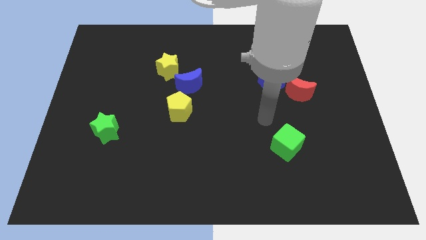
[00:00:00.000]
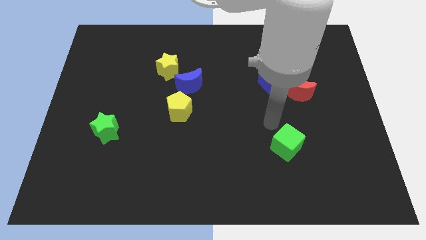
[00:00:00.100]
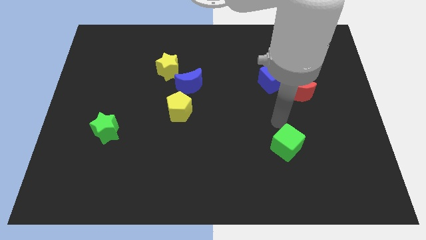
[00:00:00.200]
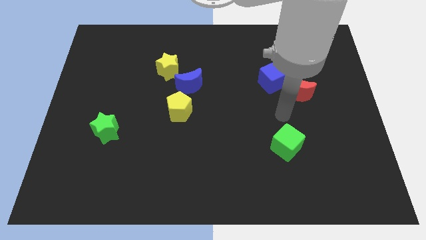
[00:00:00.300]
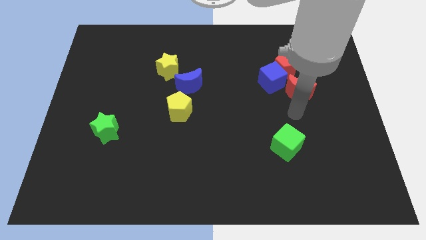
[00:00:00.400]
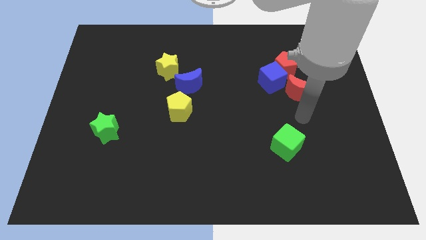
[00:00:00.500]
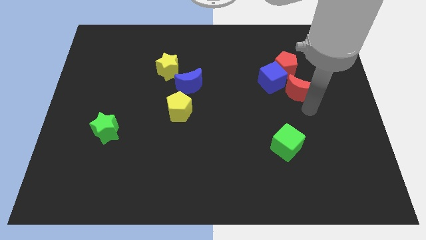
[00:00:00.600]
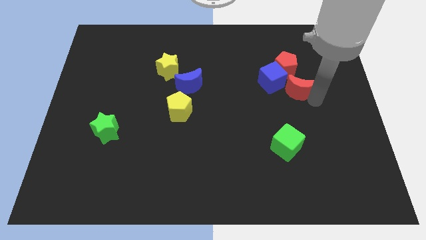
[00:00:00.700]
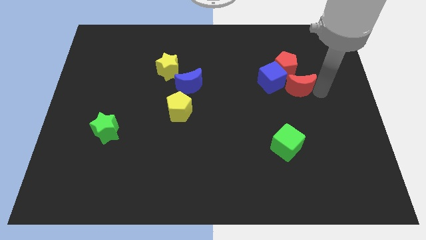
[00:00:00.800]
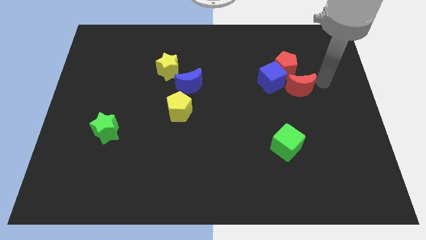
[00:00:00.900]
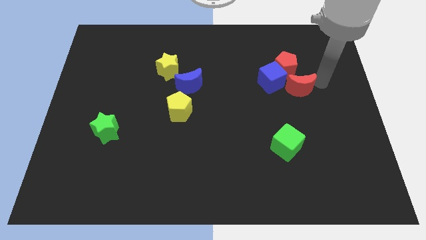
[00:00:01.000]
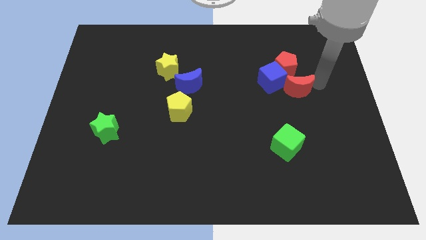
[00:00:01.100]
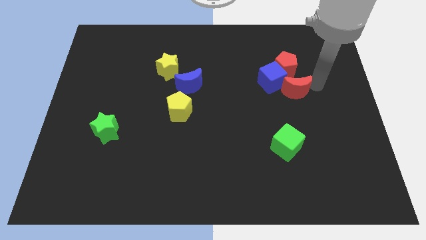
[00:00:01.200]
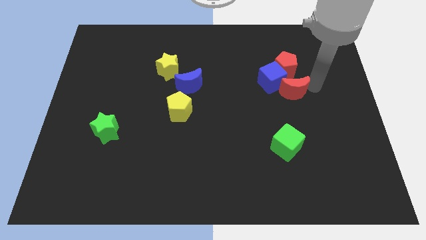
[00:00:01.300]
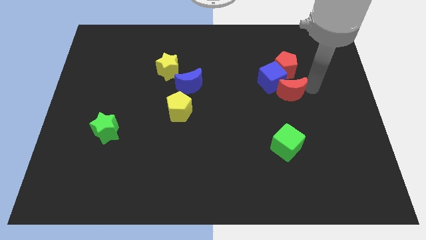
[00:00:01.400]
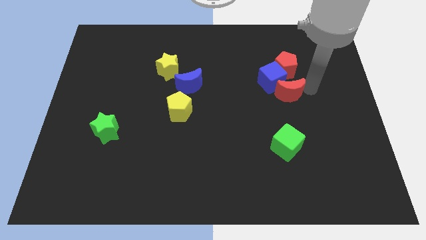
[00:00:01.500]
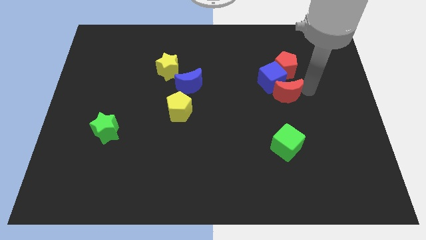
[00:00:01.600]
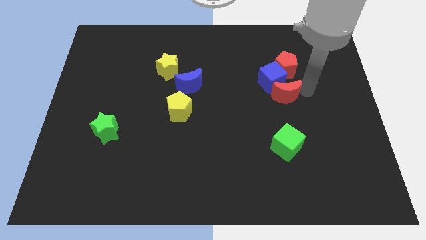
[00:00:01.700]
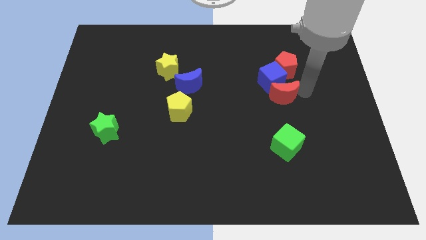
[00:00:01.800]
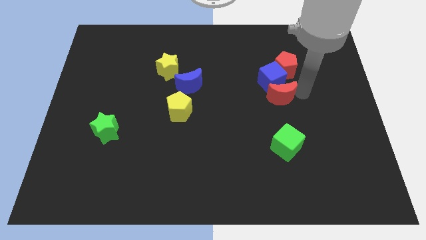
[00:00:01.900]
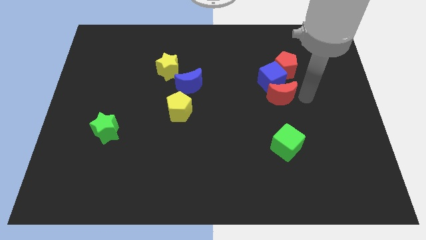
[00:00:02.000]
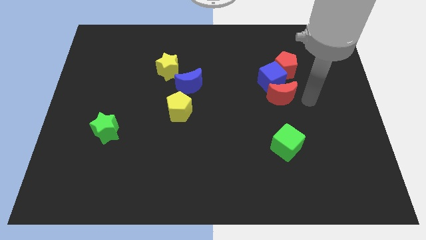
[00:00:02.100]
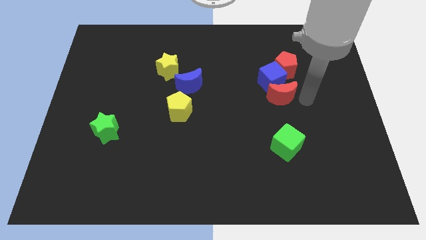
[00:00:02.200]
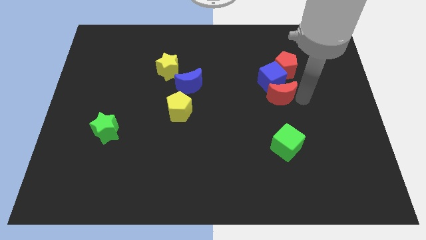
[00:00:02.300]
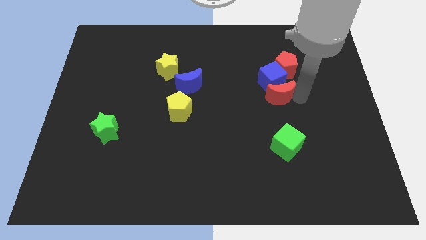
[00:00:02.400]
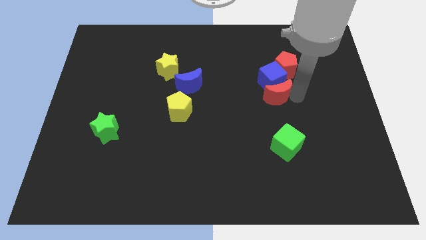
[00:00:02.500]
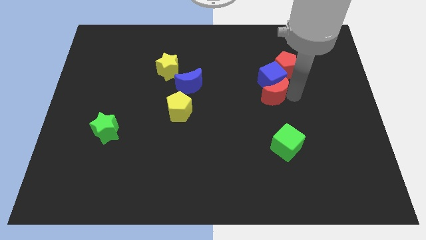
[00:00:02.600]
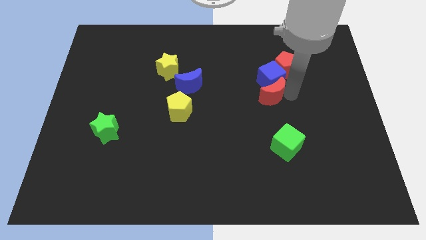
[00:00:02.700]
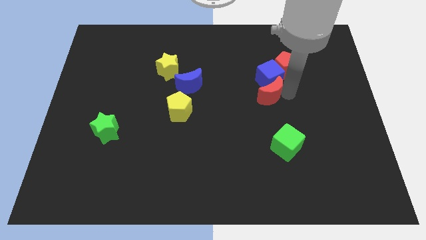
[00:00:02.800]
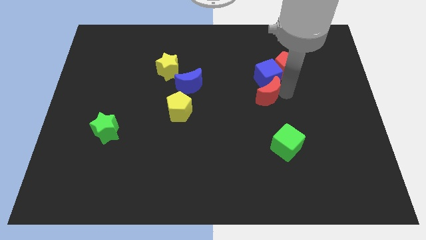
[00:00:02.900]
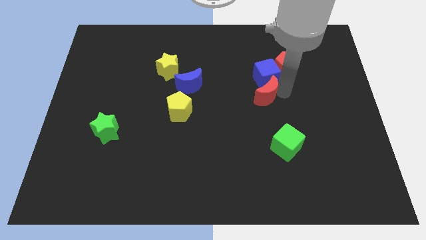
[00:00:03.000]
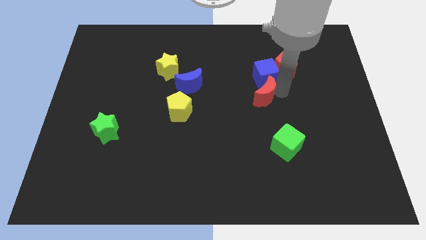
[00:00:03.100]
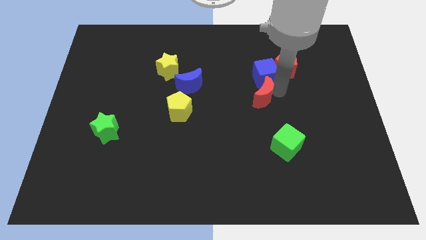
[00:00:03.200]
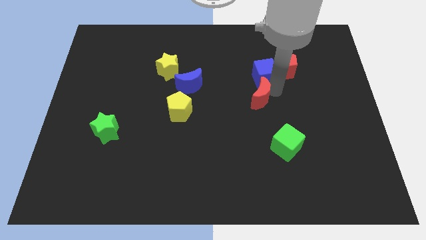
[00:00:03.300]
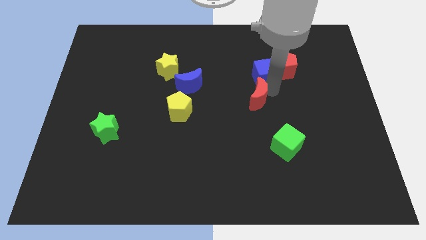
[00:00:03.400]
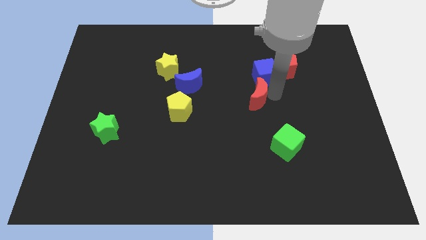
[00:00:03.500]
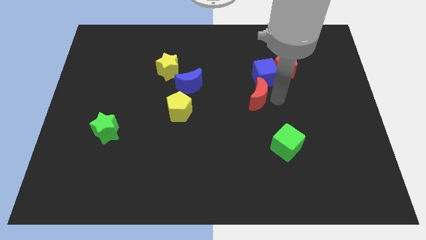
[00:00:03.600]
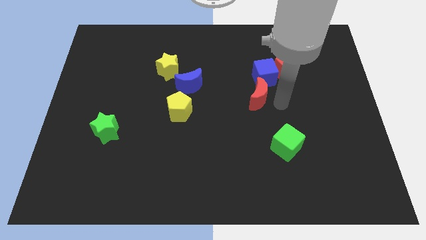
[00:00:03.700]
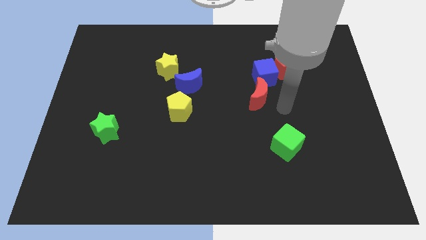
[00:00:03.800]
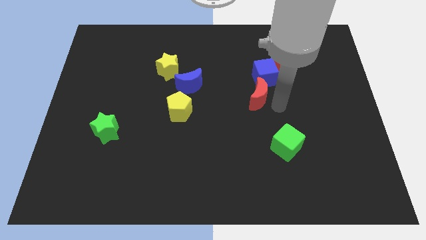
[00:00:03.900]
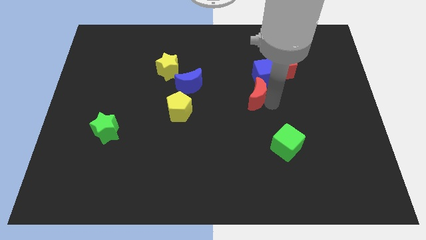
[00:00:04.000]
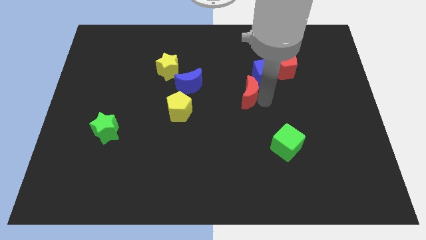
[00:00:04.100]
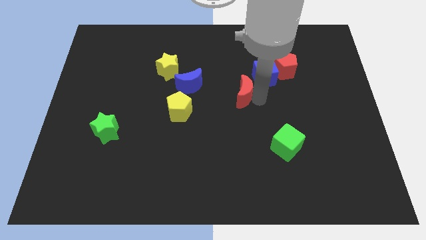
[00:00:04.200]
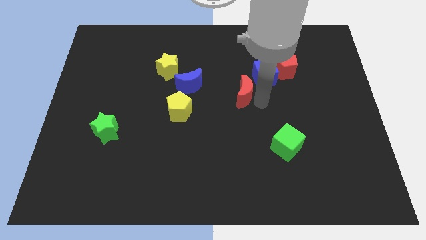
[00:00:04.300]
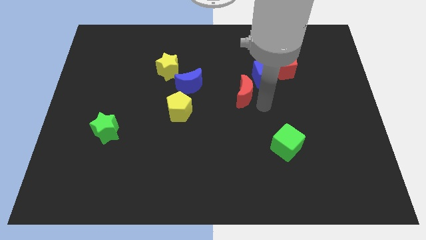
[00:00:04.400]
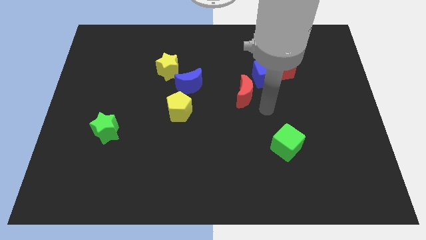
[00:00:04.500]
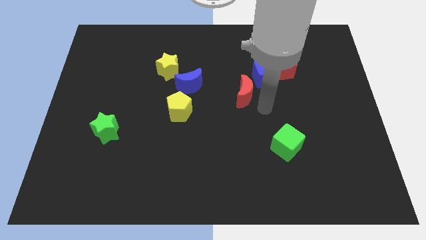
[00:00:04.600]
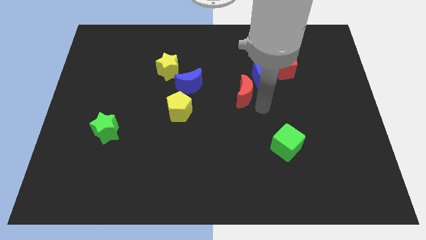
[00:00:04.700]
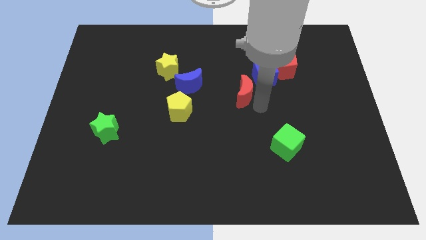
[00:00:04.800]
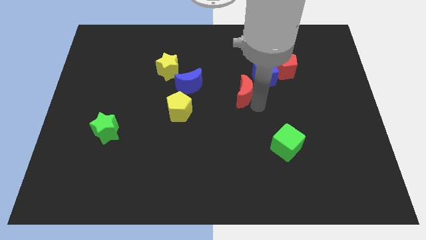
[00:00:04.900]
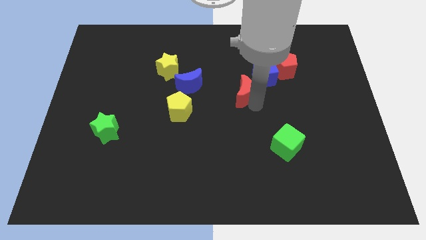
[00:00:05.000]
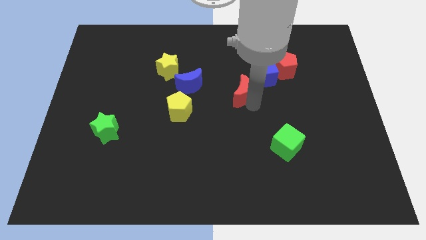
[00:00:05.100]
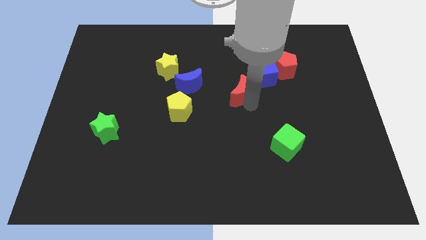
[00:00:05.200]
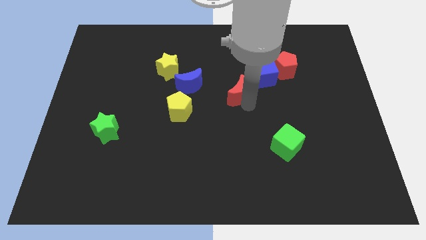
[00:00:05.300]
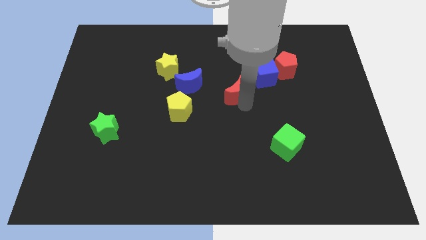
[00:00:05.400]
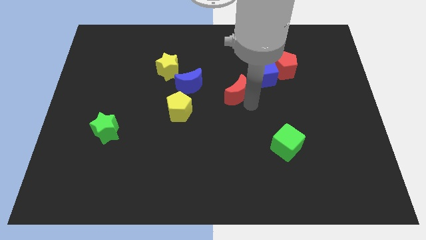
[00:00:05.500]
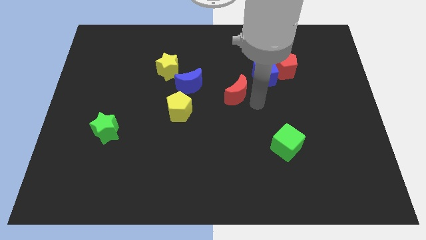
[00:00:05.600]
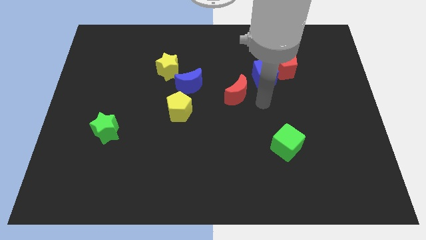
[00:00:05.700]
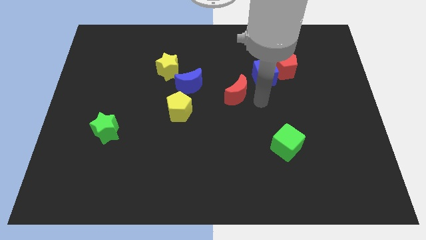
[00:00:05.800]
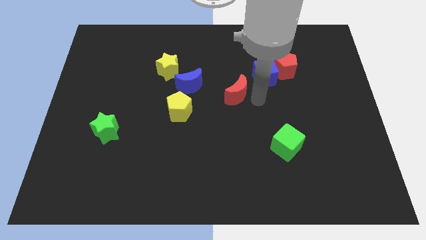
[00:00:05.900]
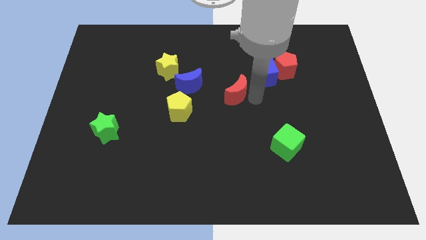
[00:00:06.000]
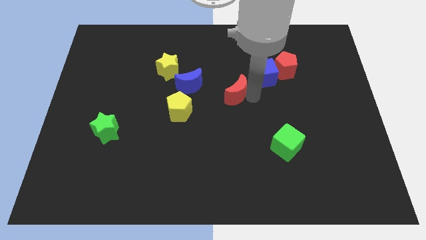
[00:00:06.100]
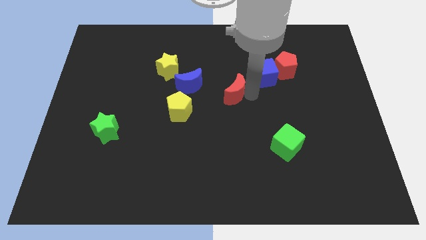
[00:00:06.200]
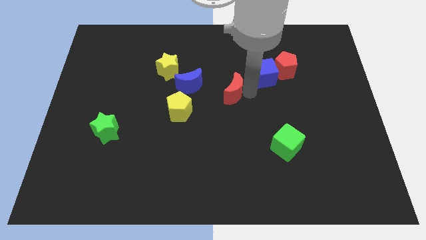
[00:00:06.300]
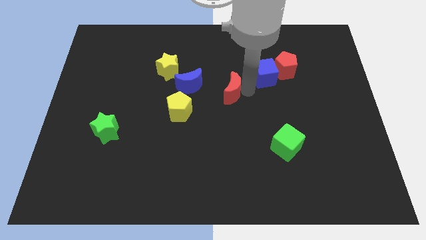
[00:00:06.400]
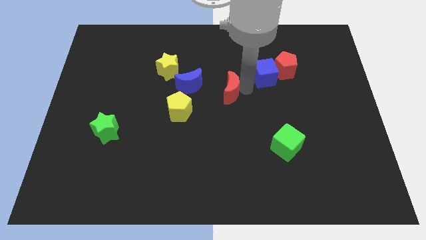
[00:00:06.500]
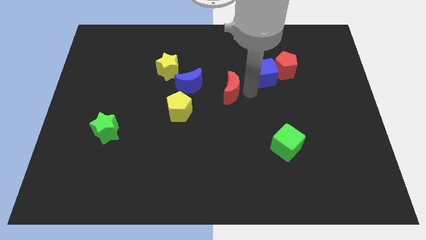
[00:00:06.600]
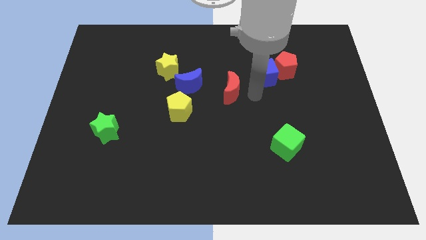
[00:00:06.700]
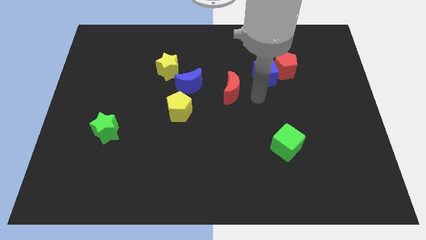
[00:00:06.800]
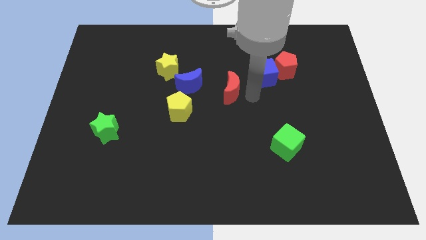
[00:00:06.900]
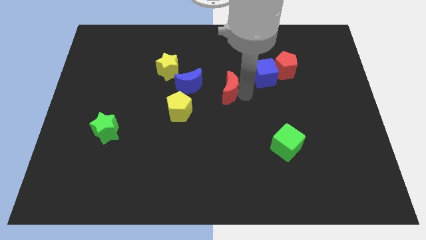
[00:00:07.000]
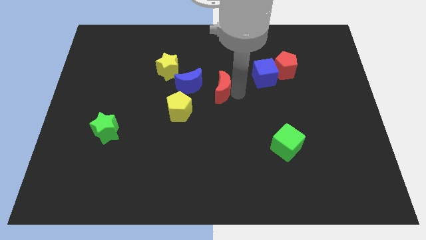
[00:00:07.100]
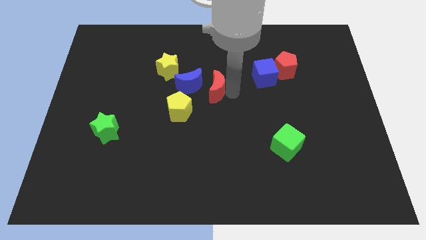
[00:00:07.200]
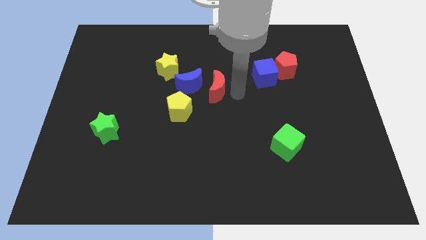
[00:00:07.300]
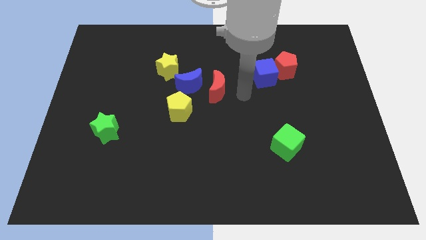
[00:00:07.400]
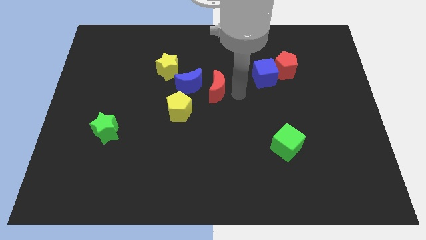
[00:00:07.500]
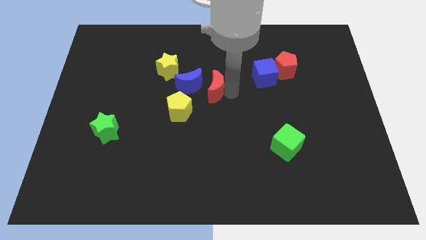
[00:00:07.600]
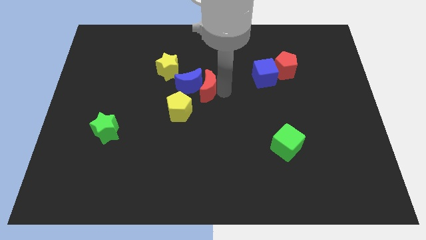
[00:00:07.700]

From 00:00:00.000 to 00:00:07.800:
push the red moon next to the blue moon

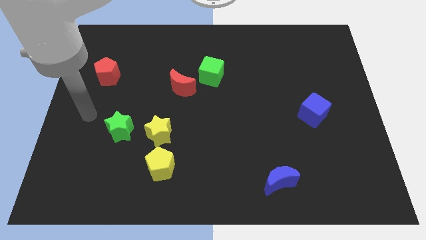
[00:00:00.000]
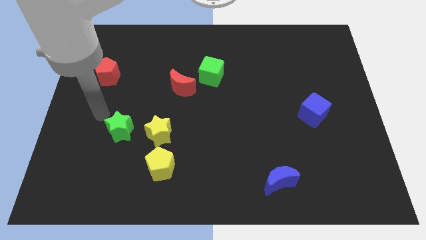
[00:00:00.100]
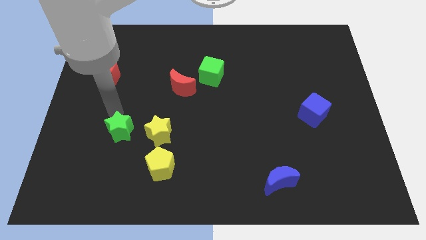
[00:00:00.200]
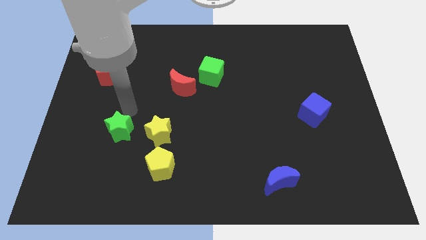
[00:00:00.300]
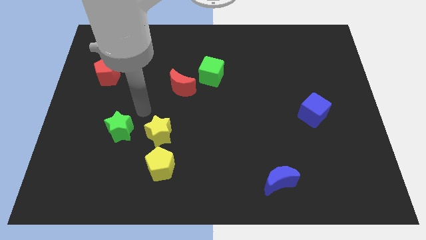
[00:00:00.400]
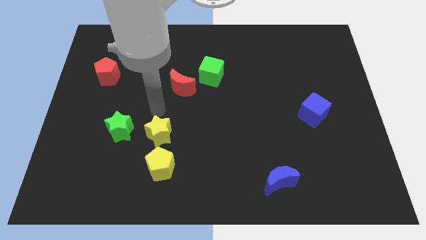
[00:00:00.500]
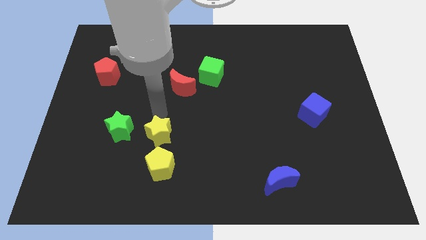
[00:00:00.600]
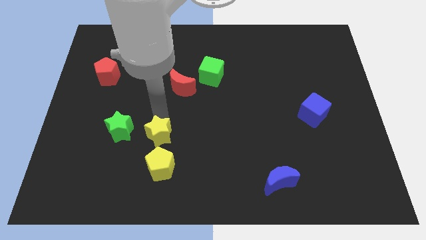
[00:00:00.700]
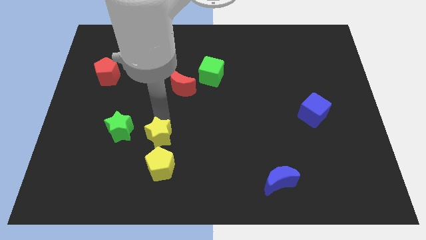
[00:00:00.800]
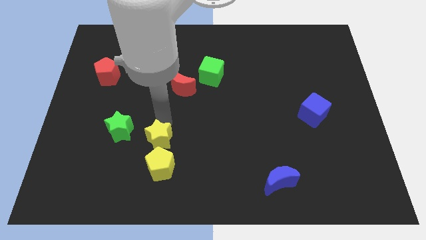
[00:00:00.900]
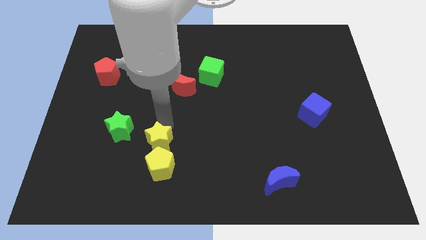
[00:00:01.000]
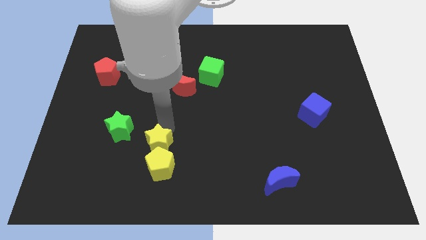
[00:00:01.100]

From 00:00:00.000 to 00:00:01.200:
put the yellow star towards the yellow pentagon
